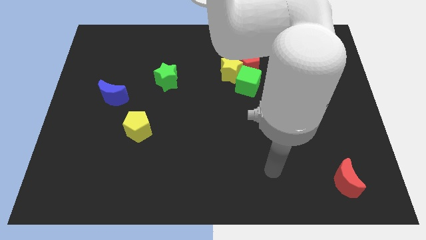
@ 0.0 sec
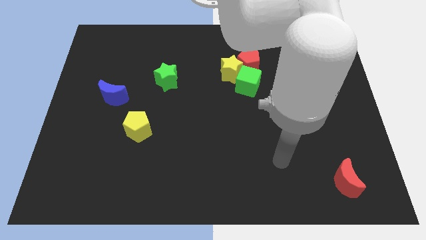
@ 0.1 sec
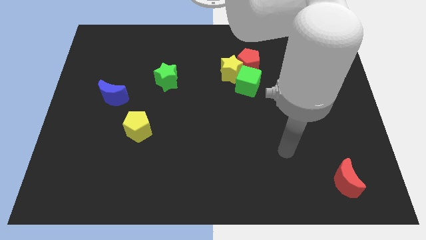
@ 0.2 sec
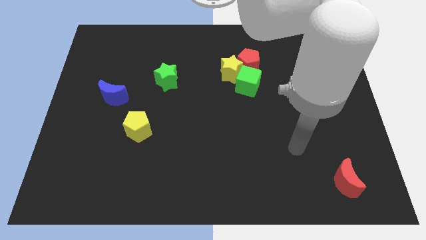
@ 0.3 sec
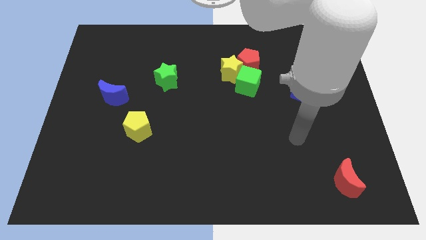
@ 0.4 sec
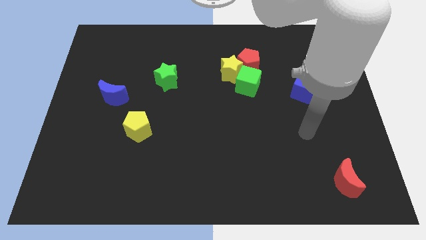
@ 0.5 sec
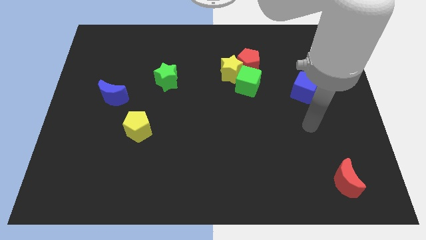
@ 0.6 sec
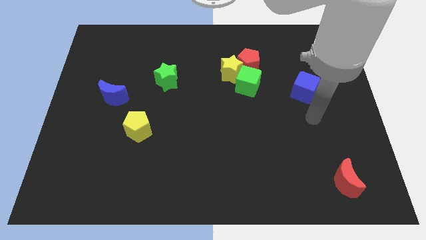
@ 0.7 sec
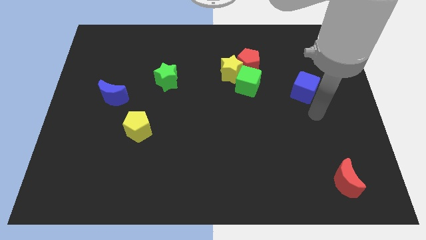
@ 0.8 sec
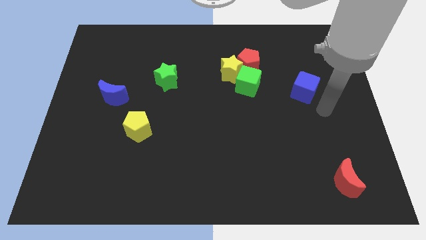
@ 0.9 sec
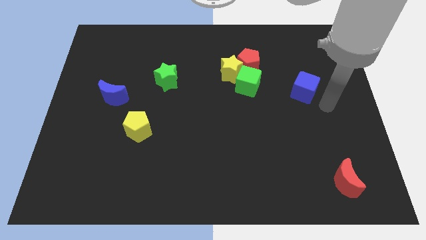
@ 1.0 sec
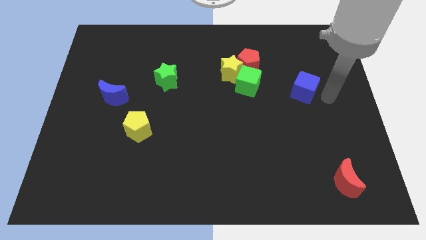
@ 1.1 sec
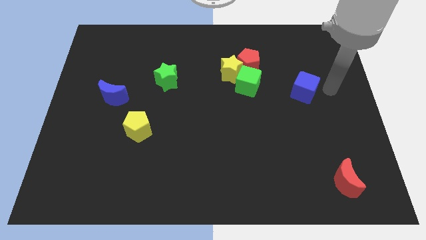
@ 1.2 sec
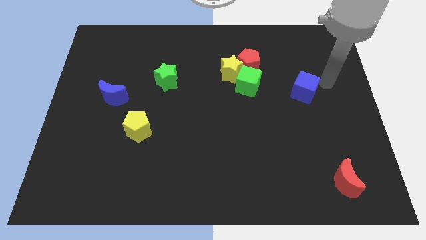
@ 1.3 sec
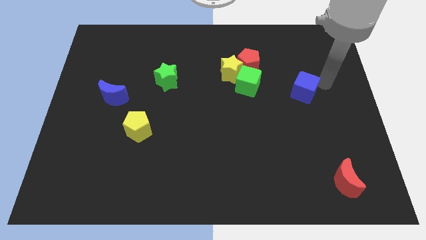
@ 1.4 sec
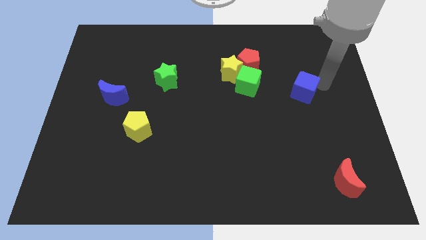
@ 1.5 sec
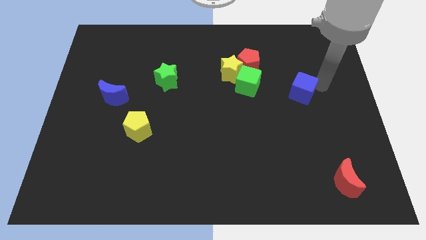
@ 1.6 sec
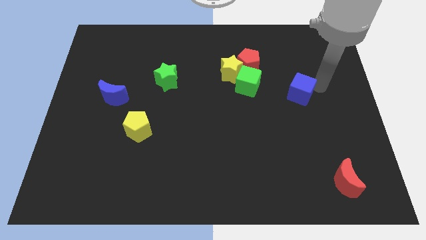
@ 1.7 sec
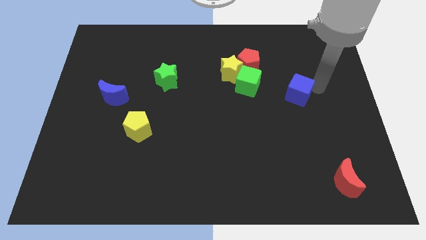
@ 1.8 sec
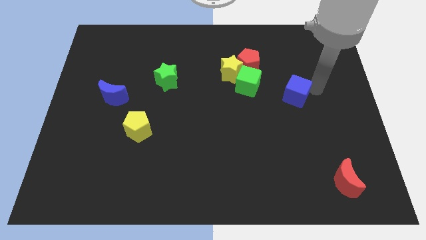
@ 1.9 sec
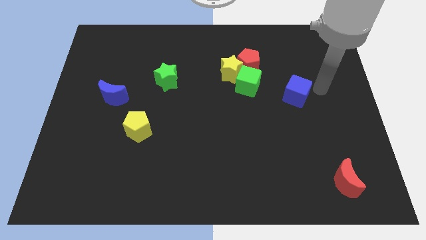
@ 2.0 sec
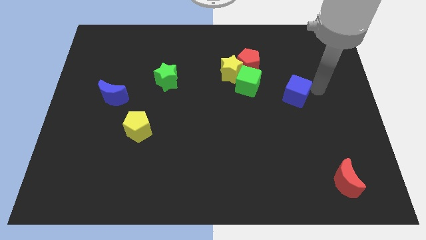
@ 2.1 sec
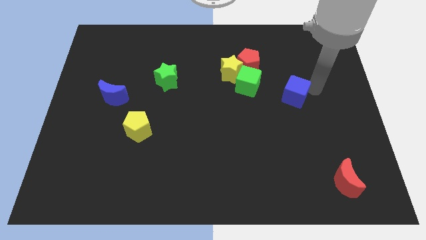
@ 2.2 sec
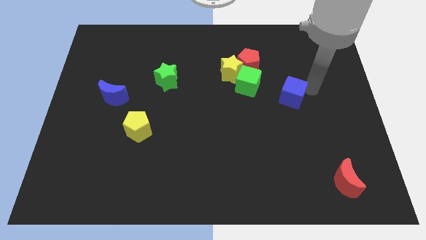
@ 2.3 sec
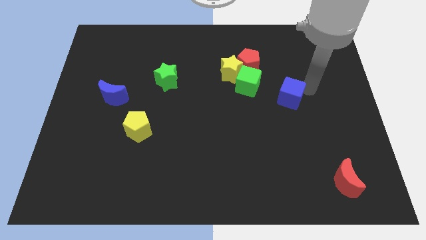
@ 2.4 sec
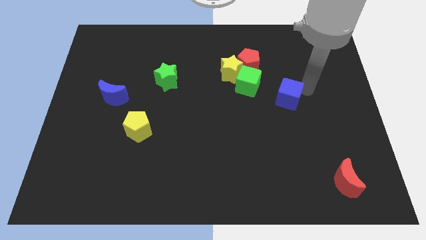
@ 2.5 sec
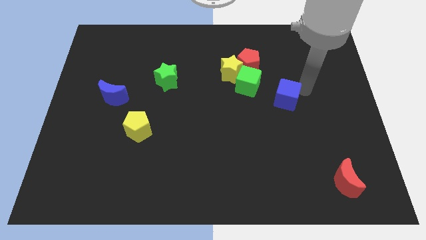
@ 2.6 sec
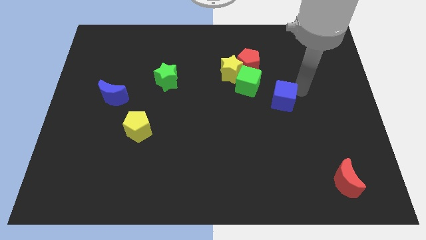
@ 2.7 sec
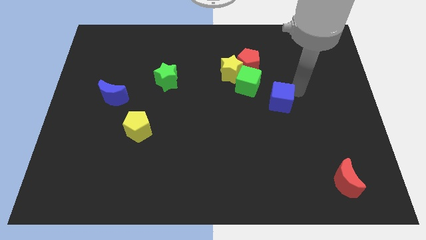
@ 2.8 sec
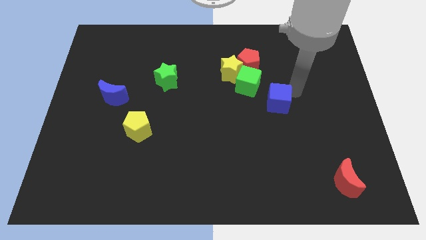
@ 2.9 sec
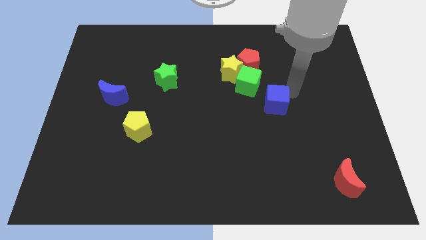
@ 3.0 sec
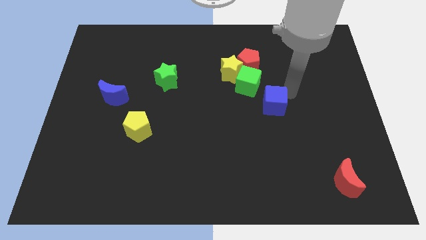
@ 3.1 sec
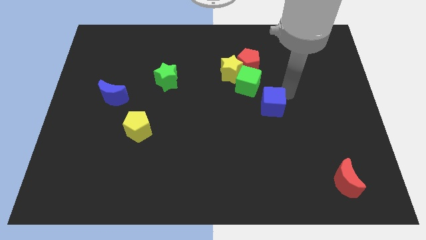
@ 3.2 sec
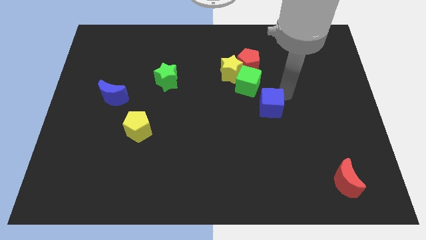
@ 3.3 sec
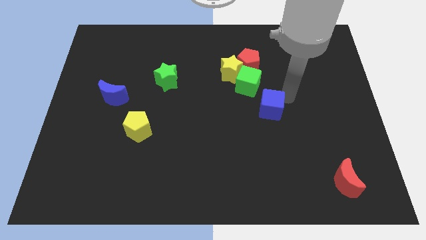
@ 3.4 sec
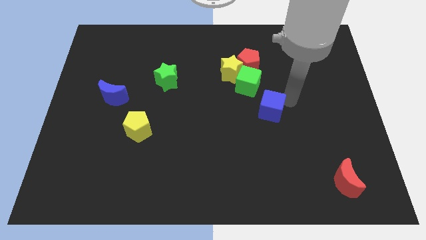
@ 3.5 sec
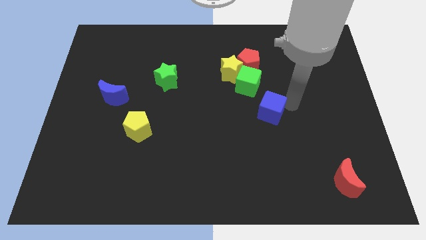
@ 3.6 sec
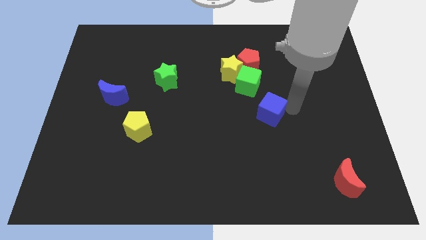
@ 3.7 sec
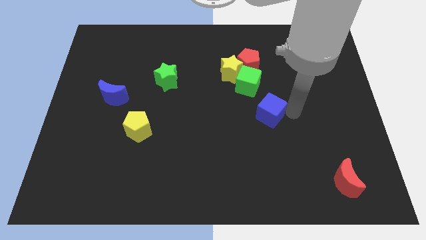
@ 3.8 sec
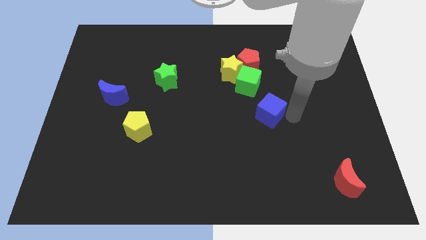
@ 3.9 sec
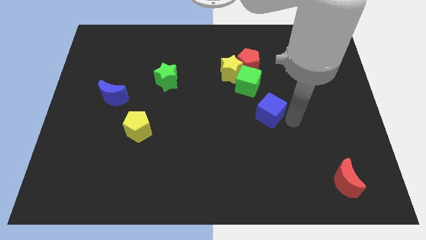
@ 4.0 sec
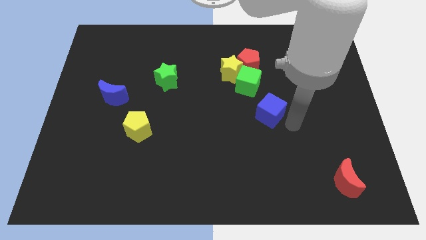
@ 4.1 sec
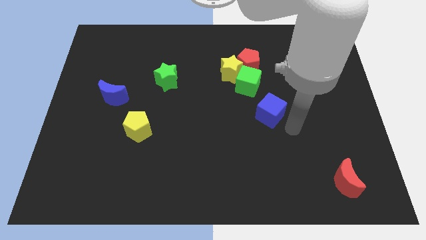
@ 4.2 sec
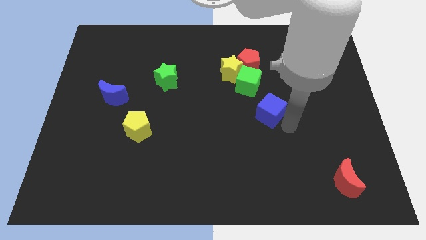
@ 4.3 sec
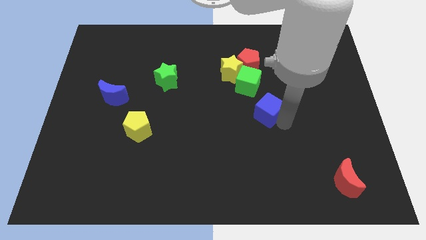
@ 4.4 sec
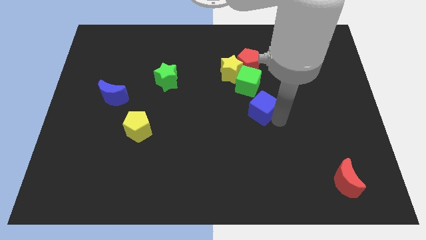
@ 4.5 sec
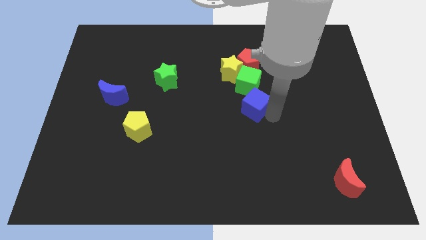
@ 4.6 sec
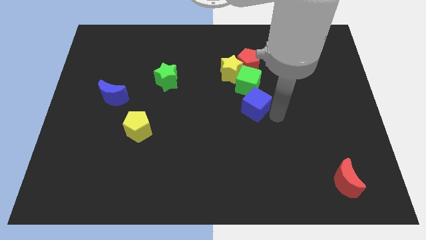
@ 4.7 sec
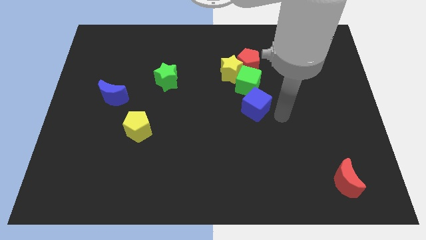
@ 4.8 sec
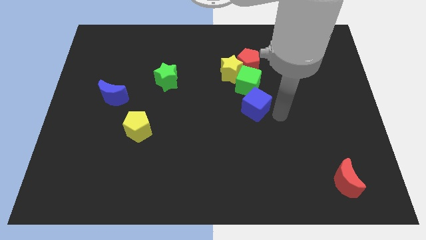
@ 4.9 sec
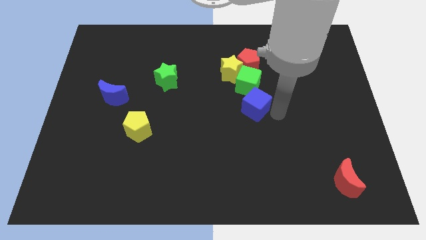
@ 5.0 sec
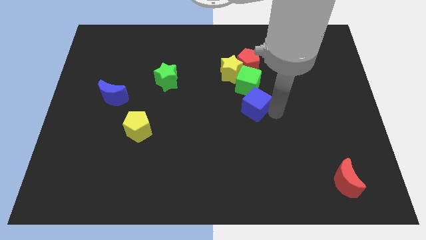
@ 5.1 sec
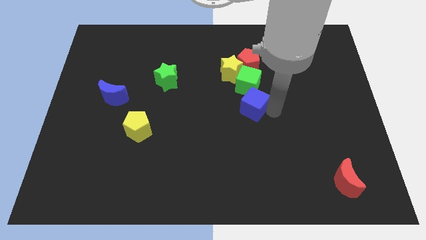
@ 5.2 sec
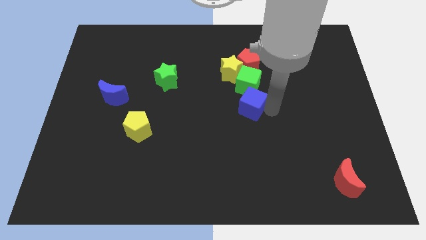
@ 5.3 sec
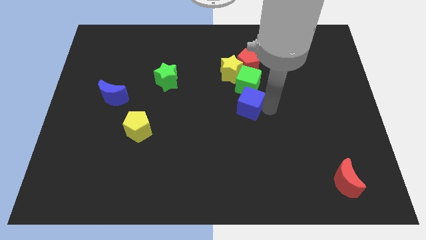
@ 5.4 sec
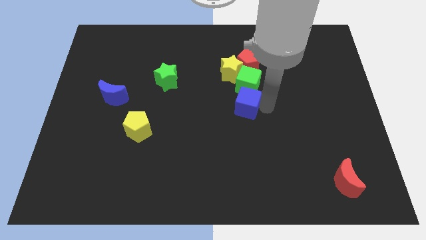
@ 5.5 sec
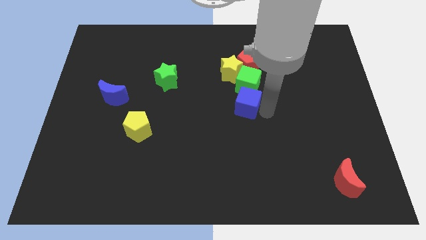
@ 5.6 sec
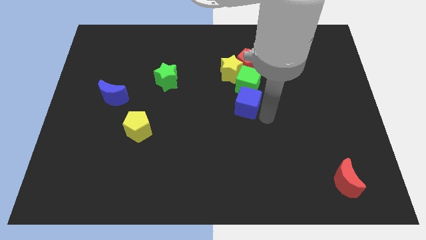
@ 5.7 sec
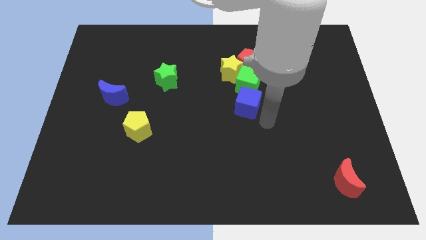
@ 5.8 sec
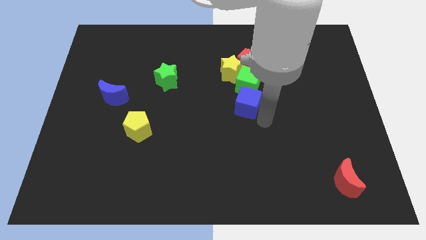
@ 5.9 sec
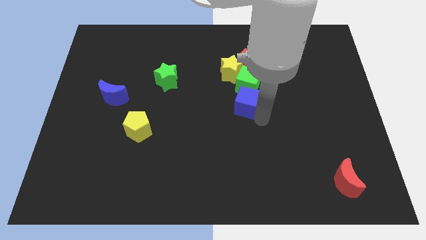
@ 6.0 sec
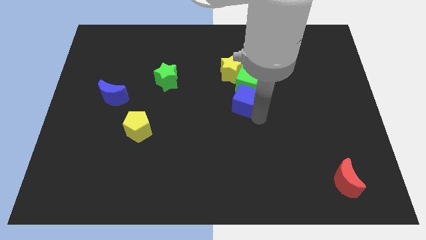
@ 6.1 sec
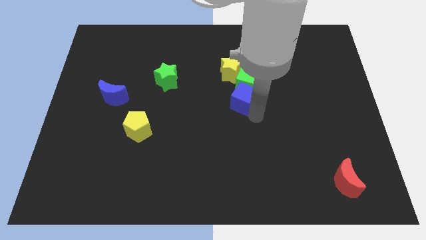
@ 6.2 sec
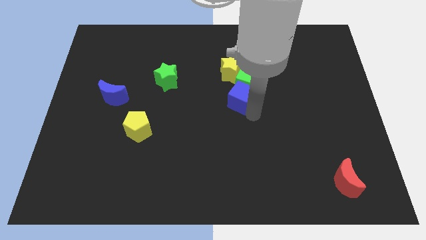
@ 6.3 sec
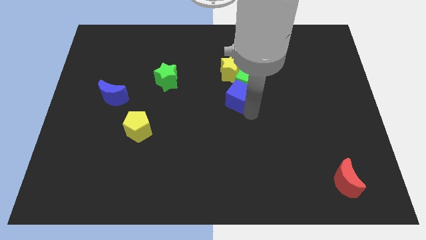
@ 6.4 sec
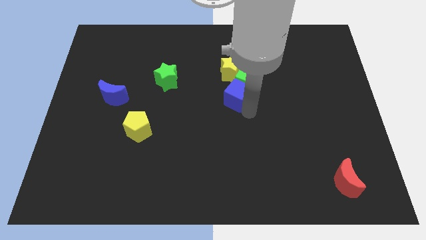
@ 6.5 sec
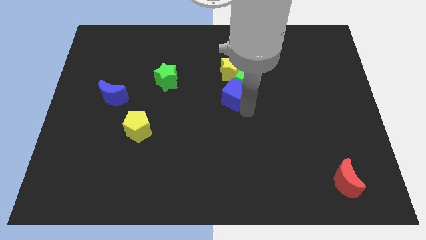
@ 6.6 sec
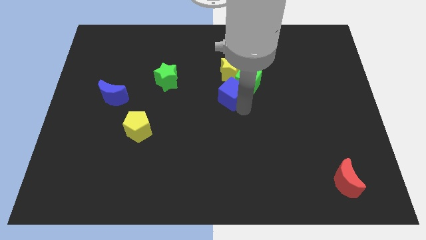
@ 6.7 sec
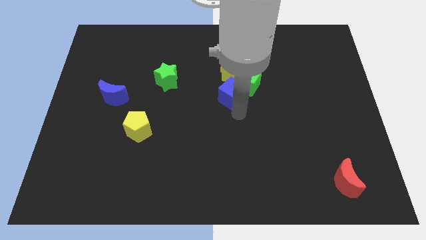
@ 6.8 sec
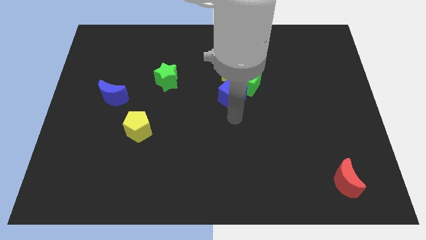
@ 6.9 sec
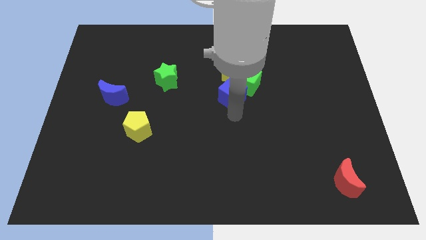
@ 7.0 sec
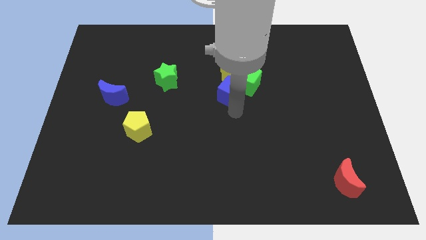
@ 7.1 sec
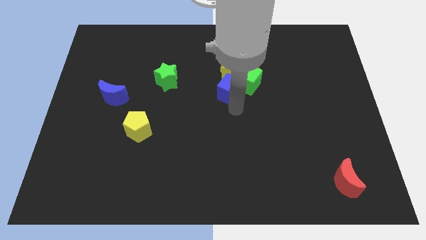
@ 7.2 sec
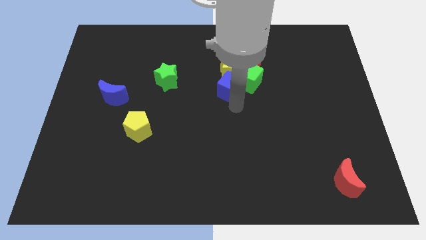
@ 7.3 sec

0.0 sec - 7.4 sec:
put the blue cube next to the yellow star
